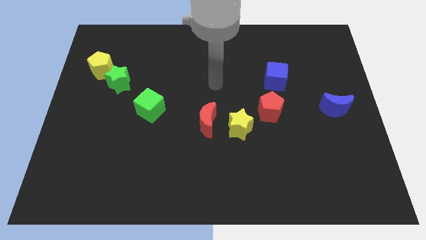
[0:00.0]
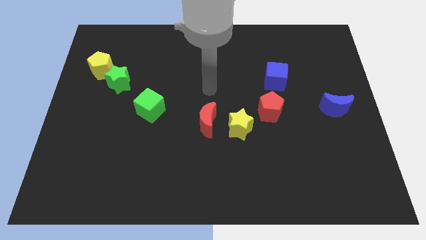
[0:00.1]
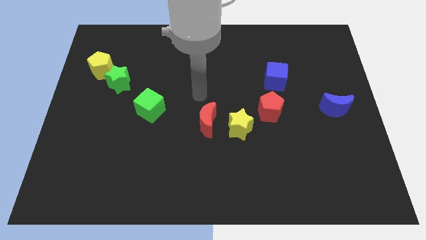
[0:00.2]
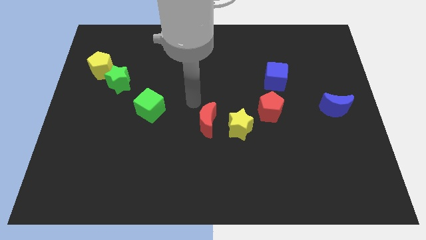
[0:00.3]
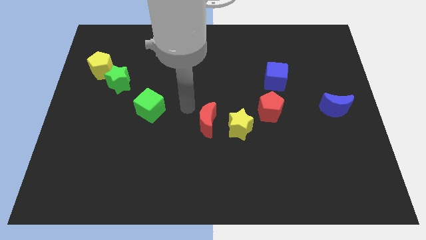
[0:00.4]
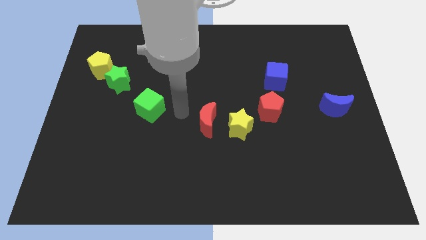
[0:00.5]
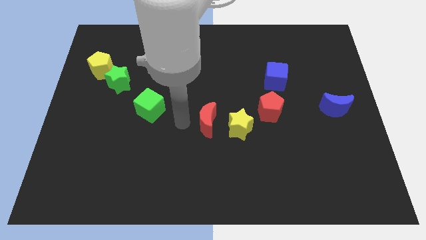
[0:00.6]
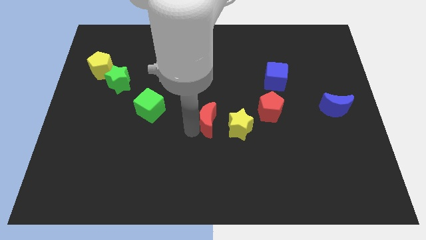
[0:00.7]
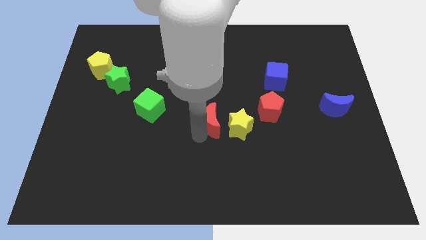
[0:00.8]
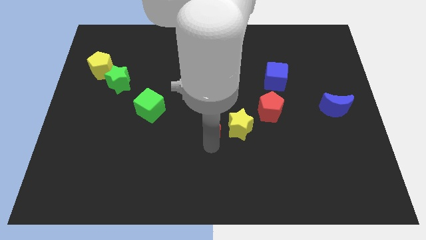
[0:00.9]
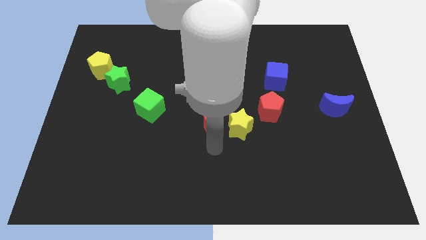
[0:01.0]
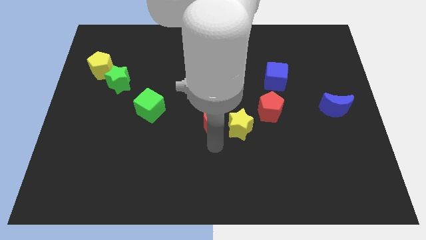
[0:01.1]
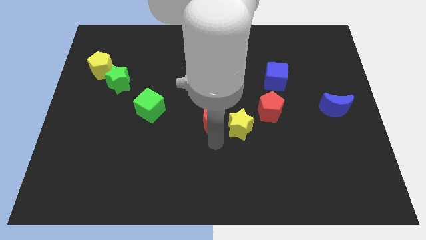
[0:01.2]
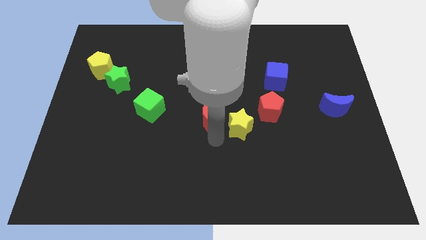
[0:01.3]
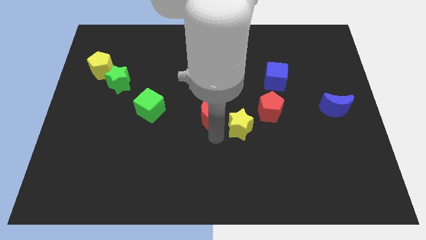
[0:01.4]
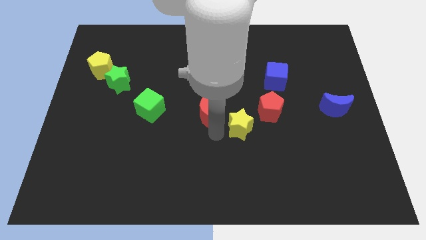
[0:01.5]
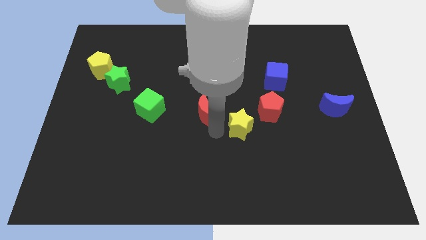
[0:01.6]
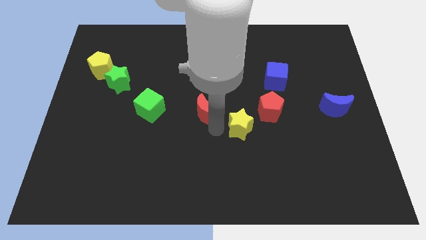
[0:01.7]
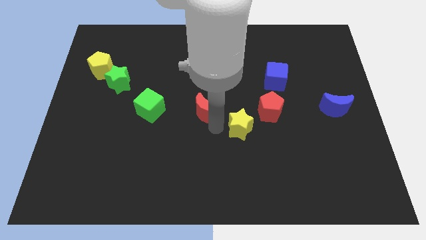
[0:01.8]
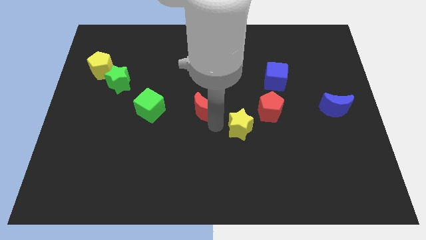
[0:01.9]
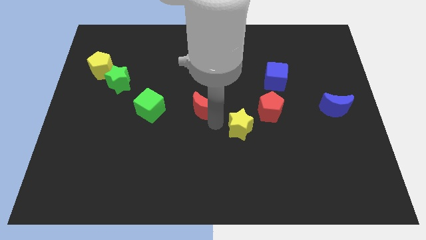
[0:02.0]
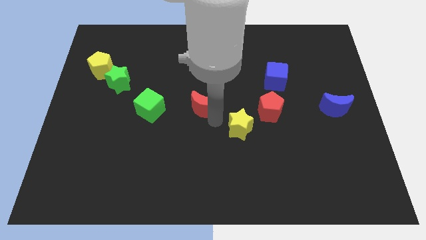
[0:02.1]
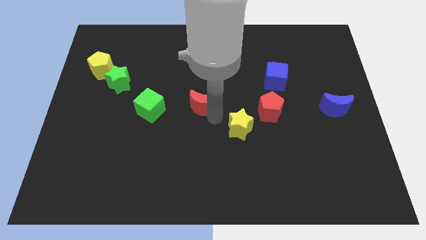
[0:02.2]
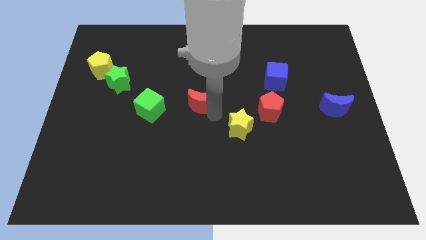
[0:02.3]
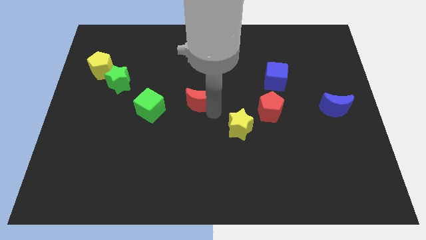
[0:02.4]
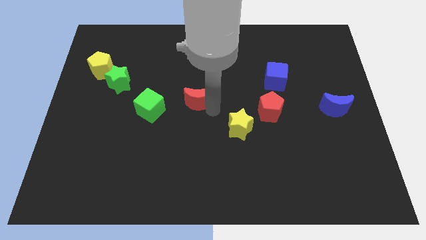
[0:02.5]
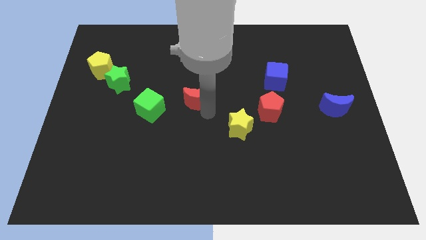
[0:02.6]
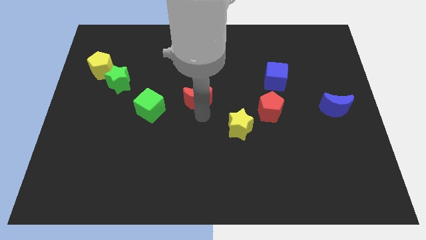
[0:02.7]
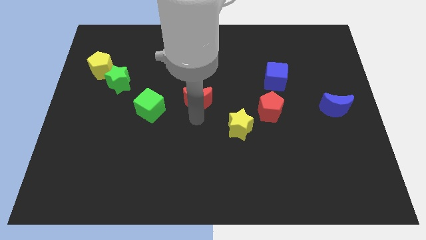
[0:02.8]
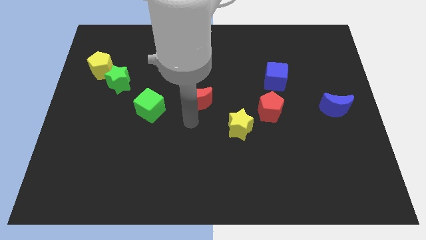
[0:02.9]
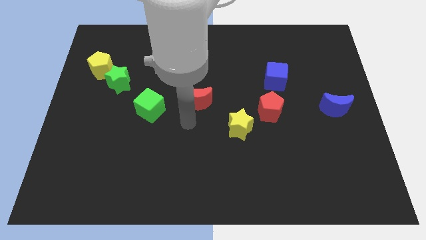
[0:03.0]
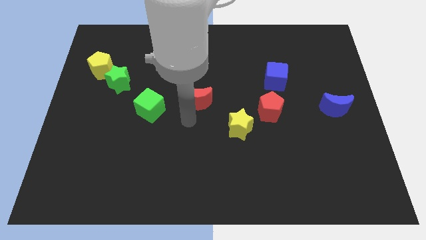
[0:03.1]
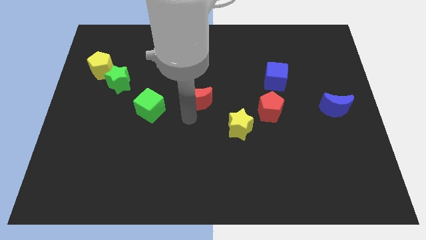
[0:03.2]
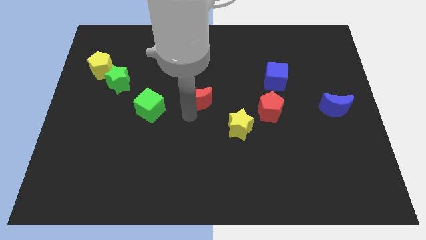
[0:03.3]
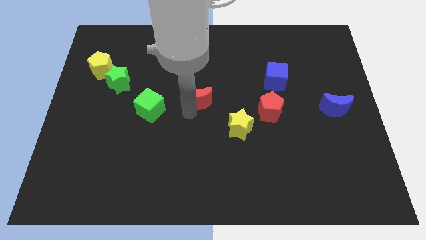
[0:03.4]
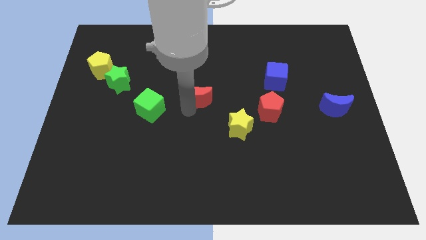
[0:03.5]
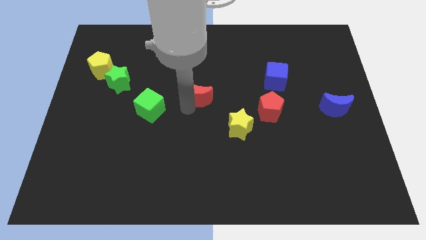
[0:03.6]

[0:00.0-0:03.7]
push the red moon slightly up

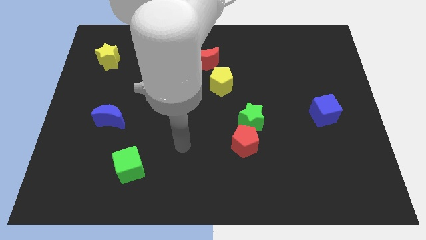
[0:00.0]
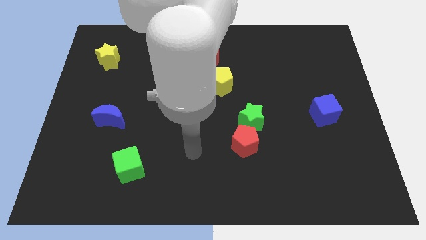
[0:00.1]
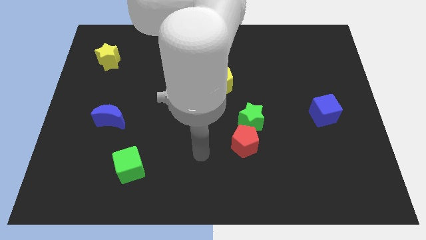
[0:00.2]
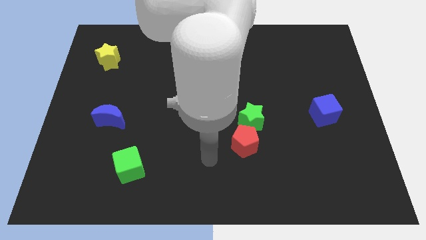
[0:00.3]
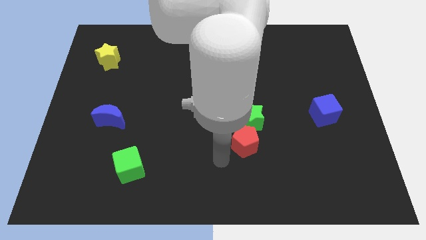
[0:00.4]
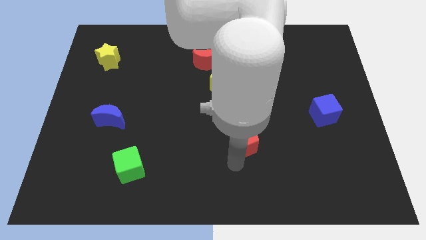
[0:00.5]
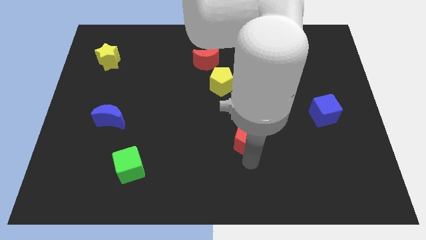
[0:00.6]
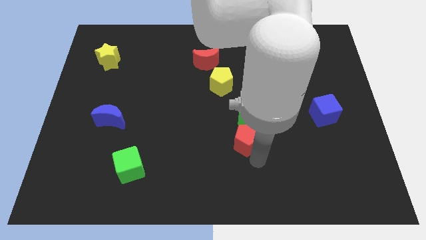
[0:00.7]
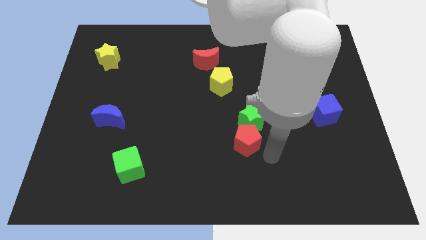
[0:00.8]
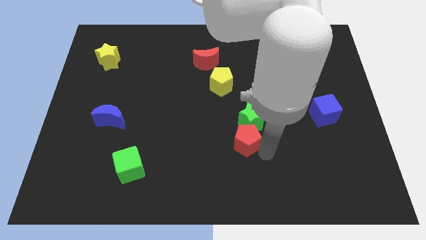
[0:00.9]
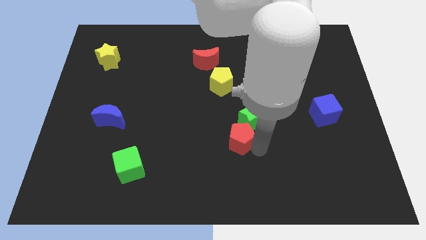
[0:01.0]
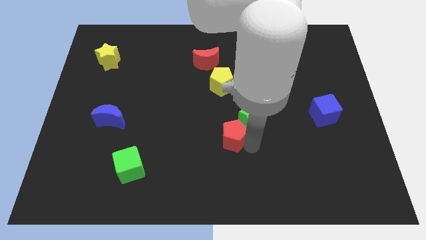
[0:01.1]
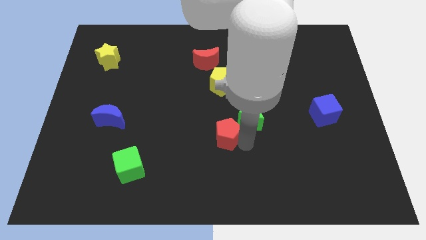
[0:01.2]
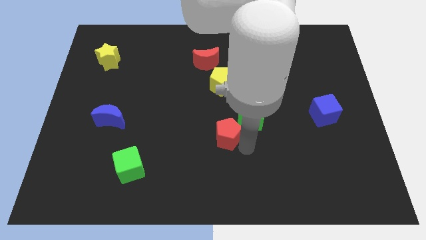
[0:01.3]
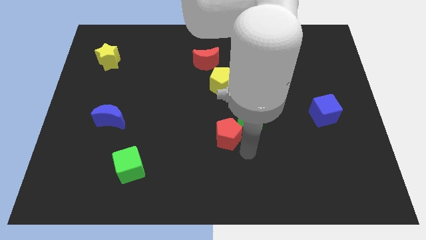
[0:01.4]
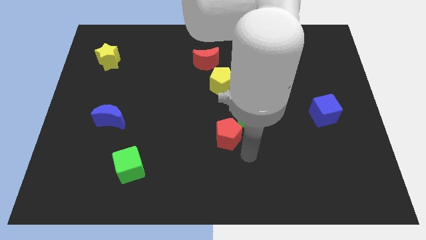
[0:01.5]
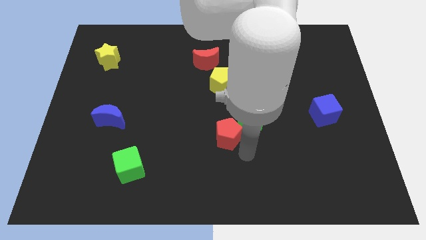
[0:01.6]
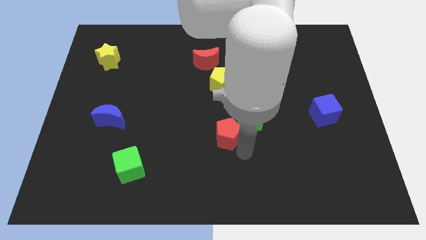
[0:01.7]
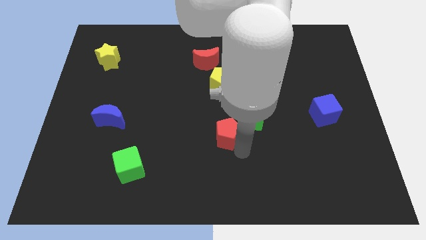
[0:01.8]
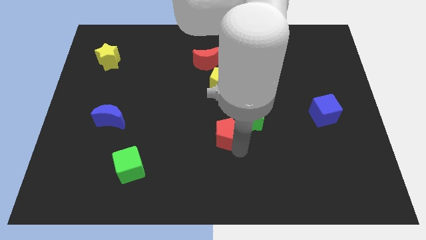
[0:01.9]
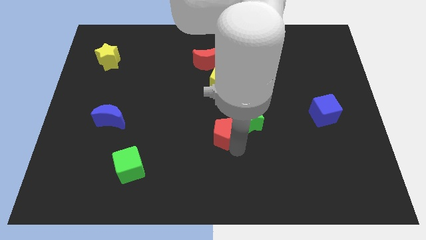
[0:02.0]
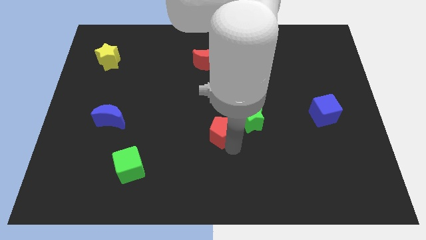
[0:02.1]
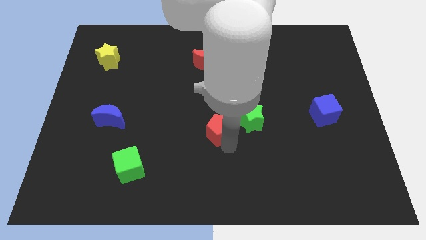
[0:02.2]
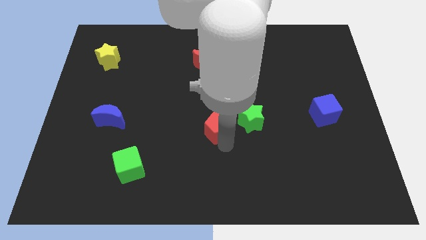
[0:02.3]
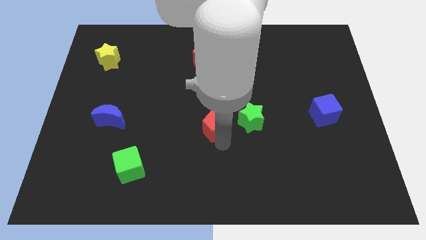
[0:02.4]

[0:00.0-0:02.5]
move the red pentagon a little bit up and to the left diagonally

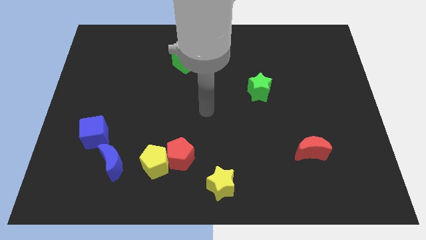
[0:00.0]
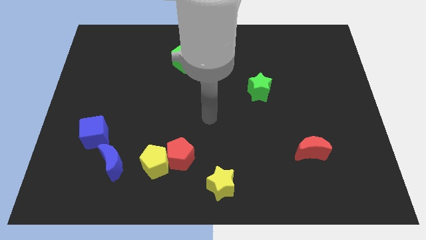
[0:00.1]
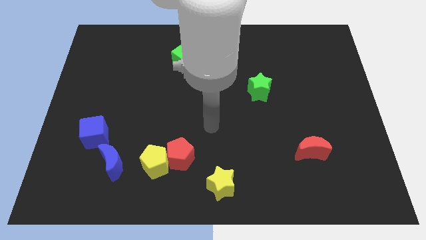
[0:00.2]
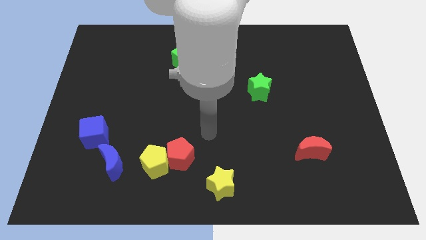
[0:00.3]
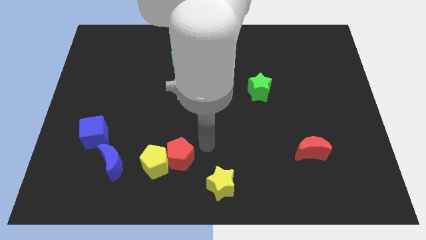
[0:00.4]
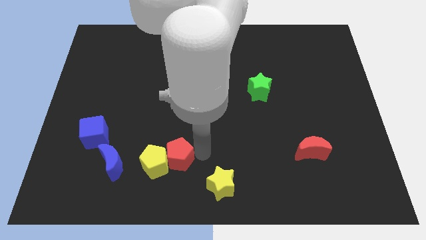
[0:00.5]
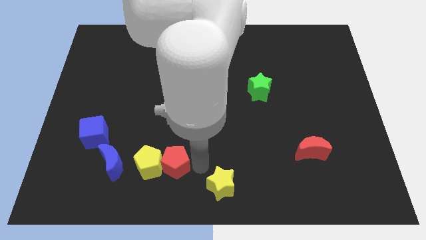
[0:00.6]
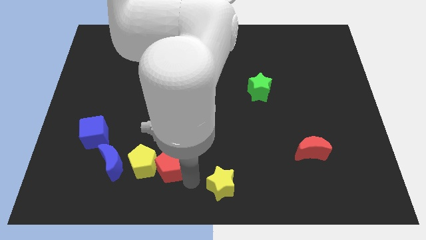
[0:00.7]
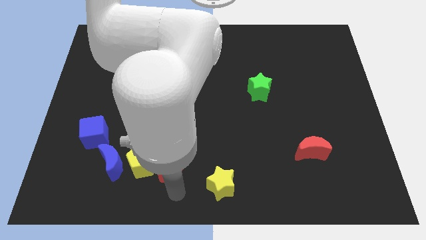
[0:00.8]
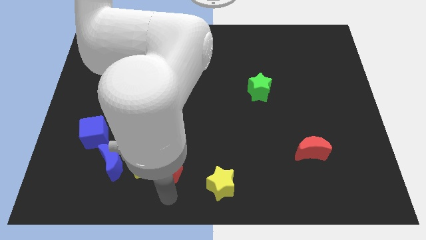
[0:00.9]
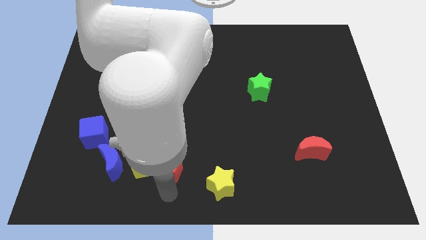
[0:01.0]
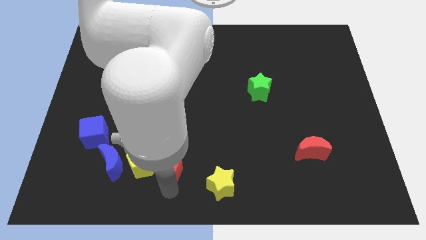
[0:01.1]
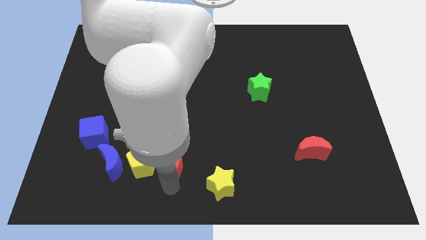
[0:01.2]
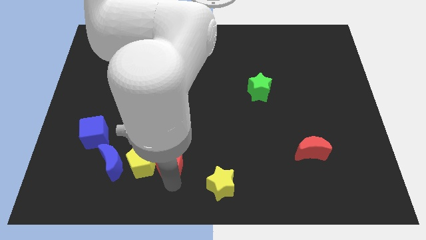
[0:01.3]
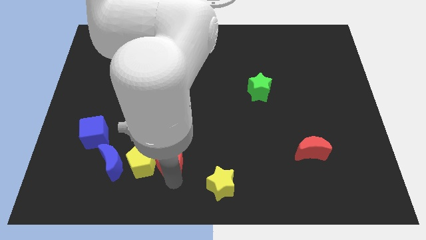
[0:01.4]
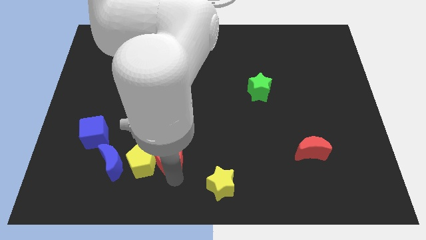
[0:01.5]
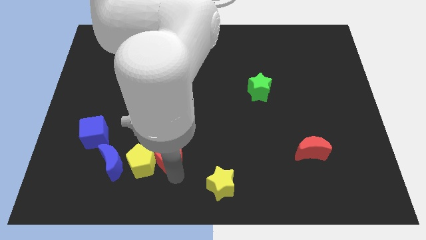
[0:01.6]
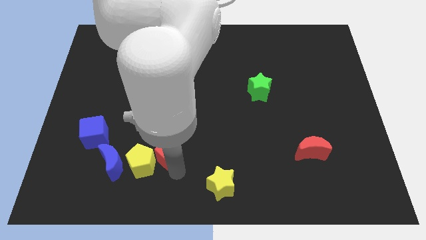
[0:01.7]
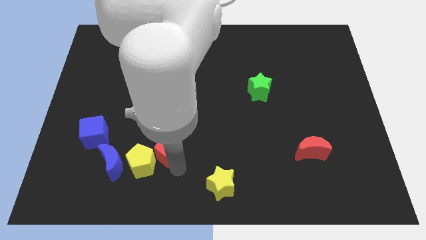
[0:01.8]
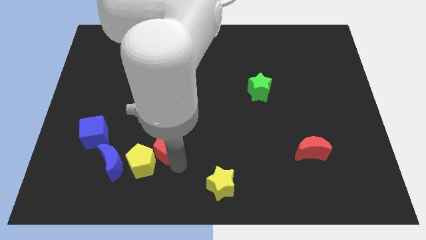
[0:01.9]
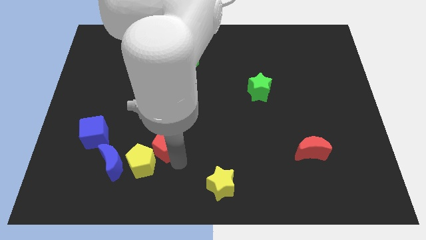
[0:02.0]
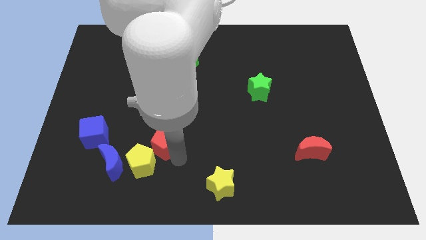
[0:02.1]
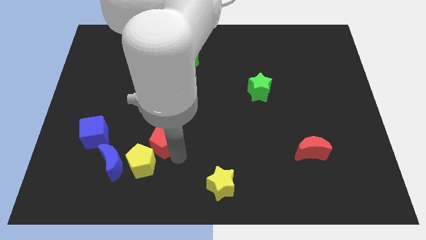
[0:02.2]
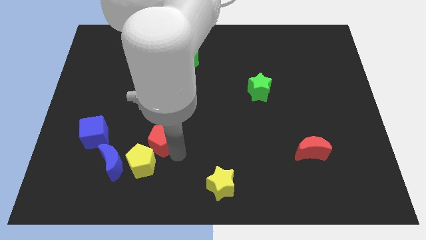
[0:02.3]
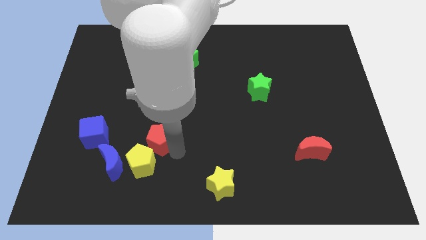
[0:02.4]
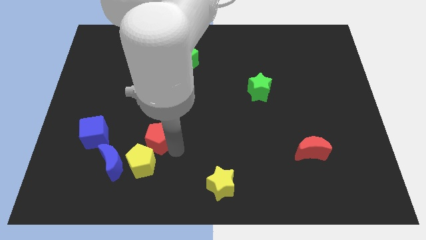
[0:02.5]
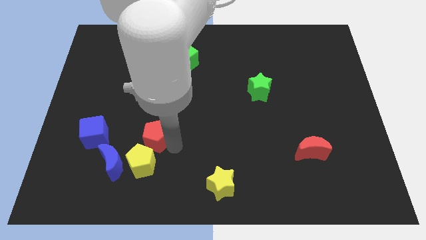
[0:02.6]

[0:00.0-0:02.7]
push the red pentagon slightly upwards and left diagonally
